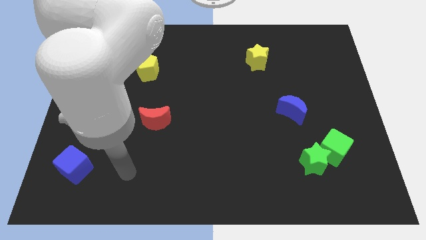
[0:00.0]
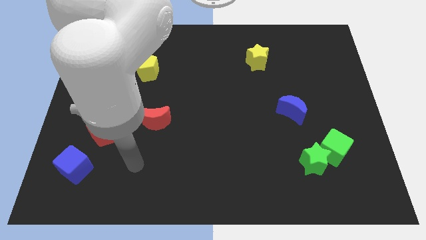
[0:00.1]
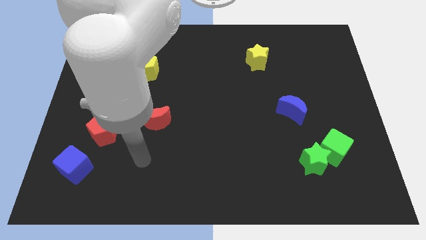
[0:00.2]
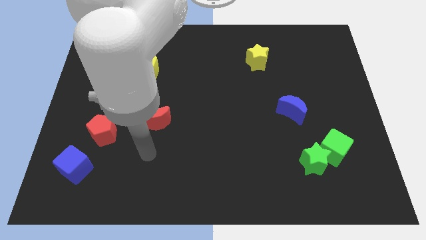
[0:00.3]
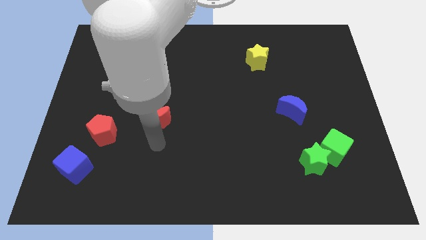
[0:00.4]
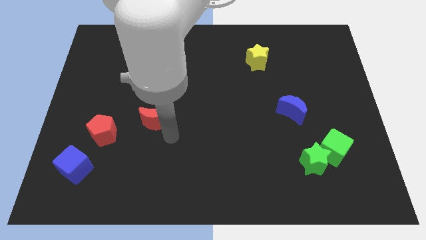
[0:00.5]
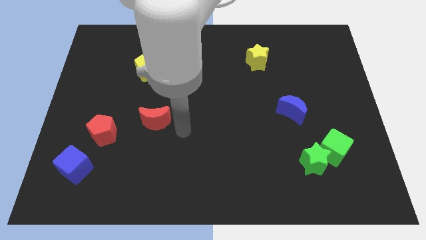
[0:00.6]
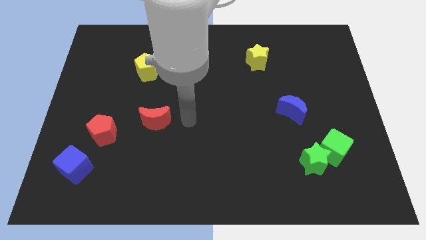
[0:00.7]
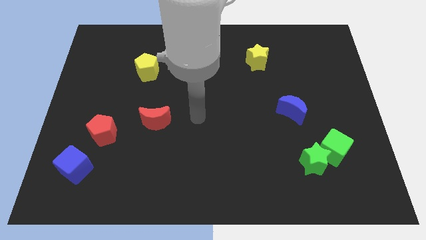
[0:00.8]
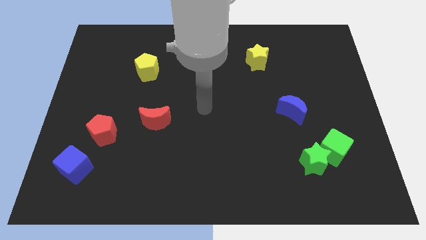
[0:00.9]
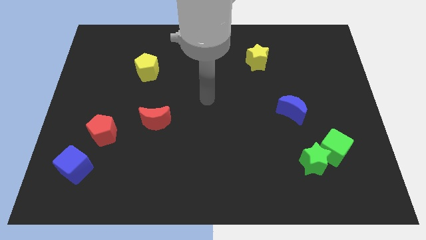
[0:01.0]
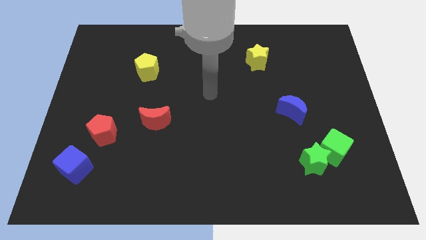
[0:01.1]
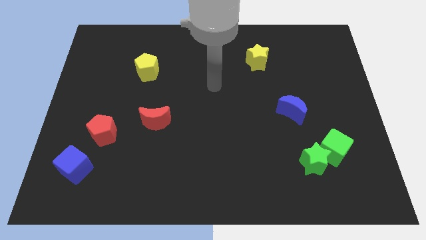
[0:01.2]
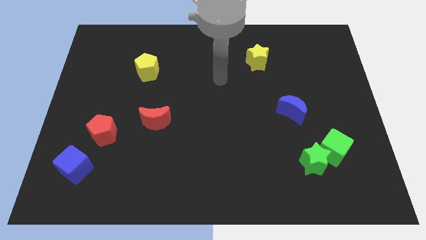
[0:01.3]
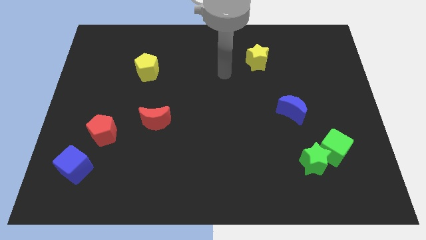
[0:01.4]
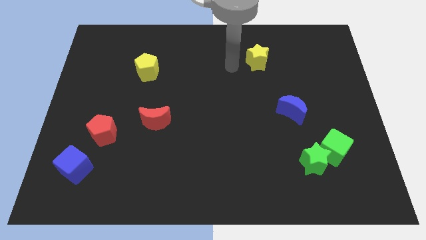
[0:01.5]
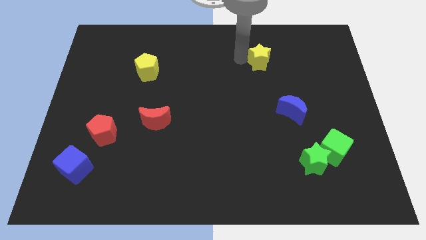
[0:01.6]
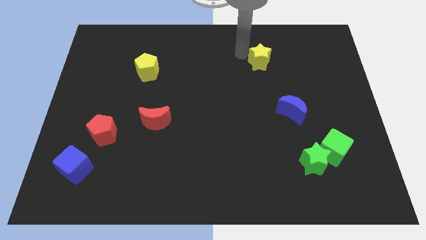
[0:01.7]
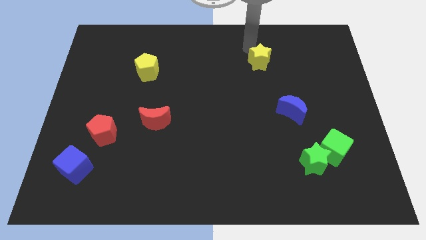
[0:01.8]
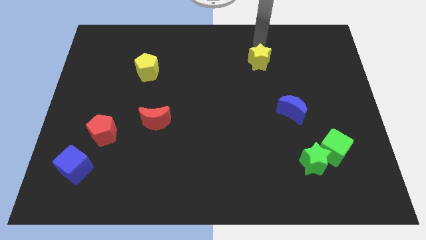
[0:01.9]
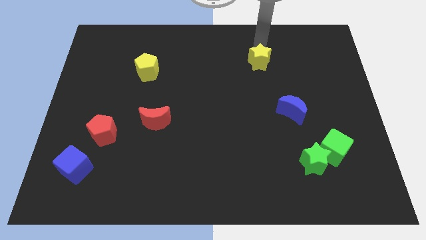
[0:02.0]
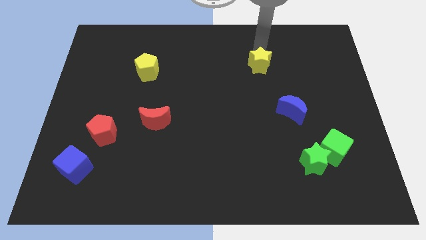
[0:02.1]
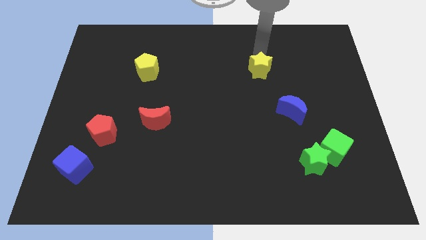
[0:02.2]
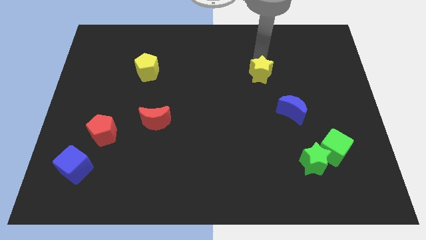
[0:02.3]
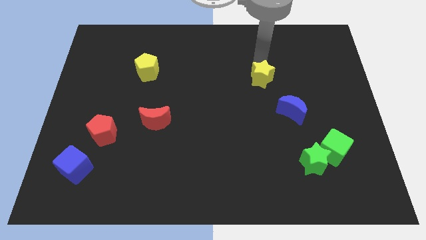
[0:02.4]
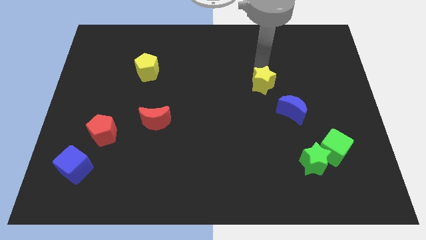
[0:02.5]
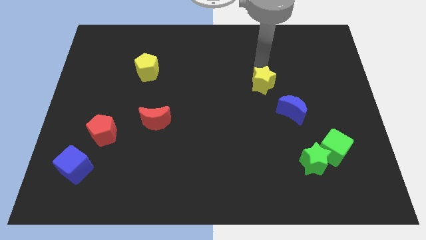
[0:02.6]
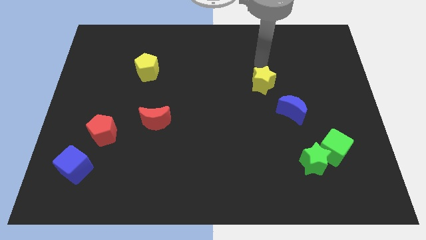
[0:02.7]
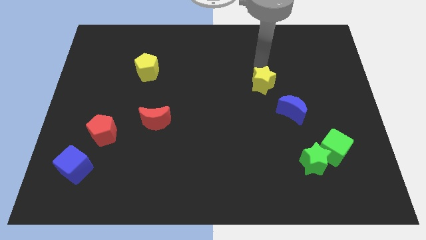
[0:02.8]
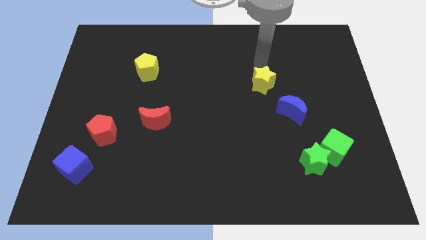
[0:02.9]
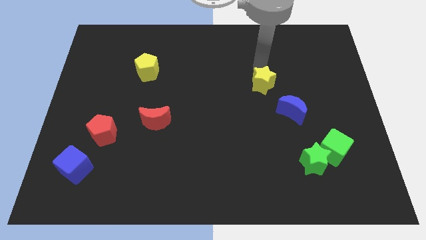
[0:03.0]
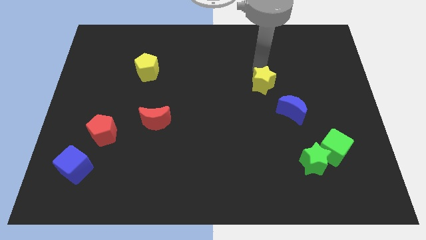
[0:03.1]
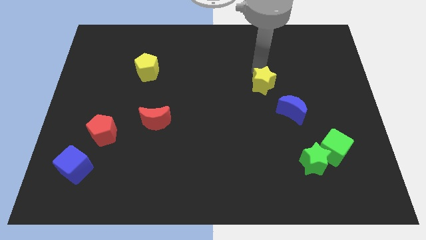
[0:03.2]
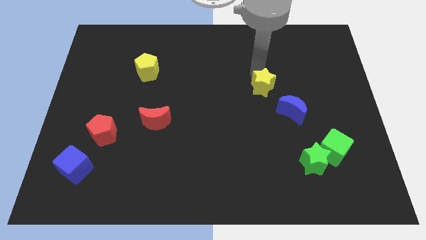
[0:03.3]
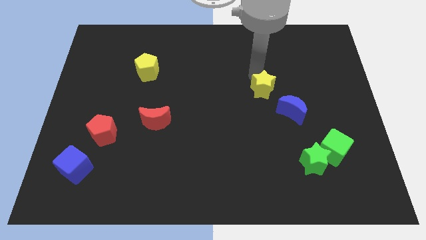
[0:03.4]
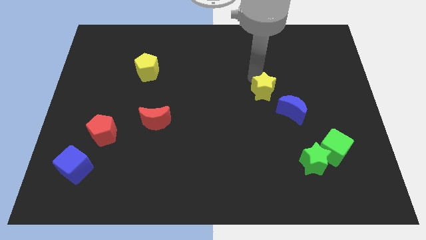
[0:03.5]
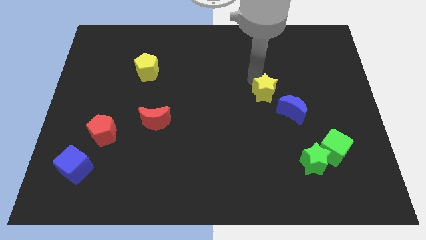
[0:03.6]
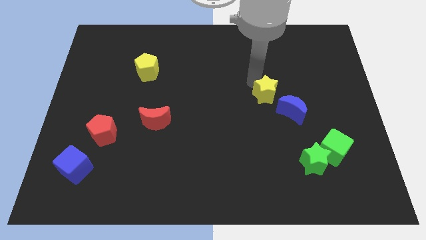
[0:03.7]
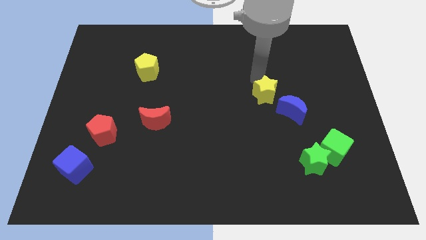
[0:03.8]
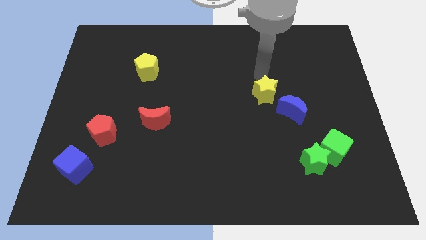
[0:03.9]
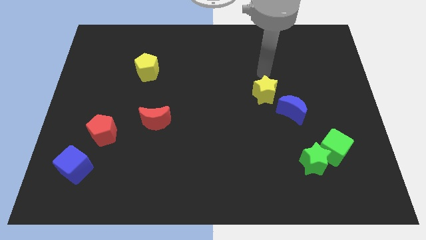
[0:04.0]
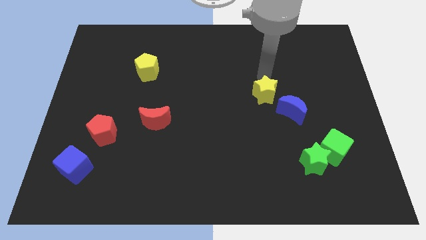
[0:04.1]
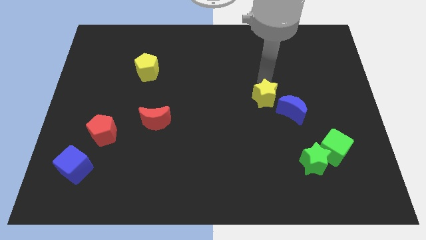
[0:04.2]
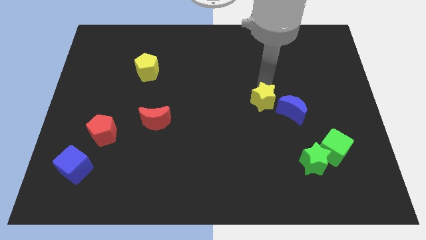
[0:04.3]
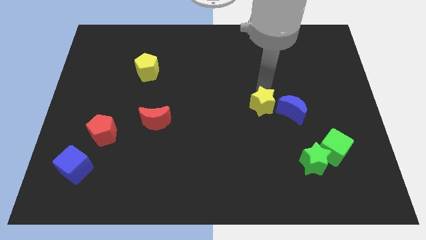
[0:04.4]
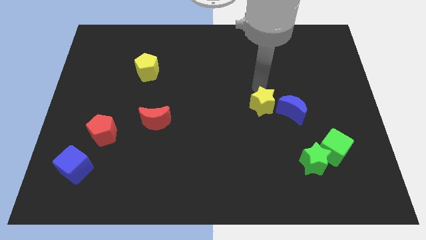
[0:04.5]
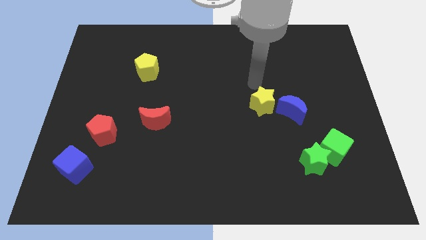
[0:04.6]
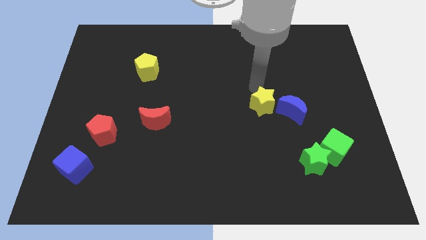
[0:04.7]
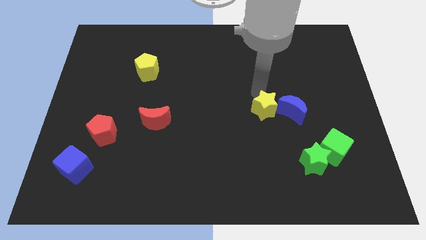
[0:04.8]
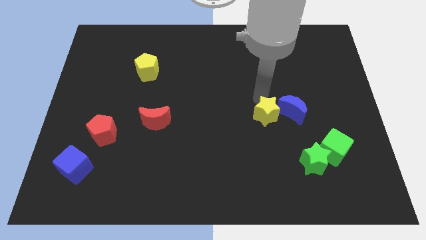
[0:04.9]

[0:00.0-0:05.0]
move the yellow star diagonally down and to the left of the blue moon

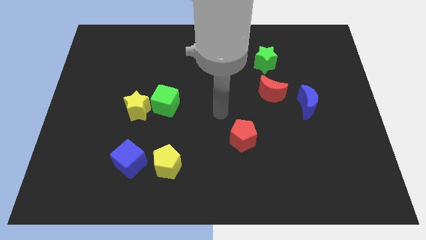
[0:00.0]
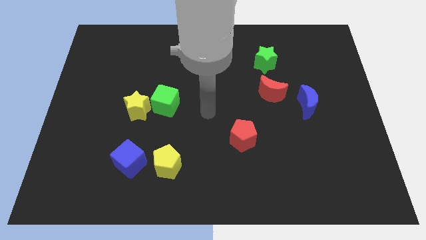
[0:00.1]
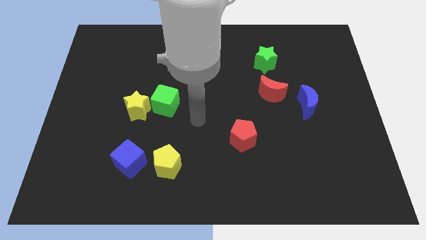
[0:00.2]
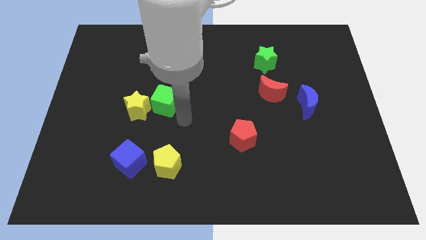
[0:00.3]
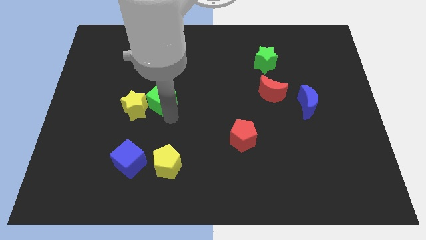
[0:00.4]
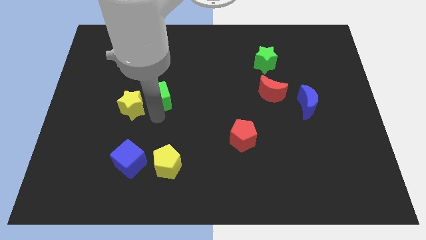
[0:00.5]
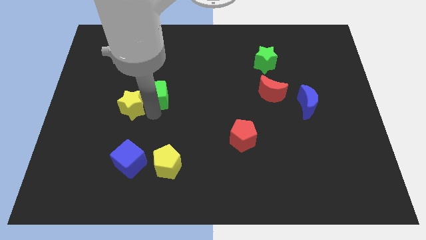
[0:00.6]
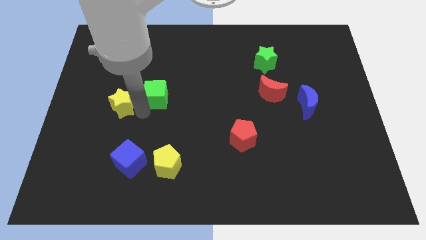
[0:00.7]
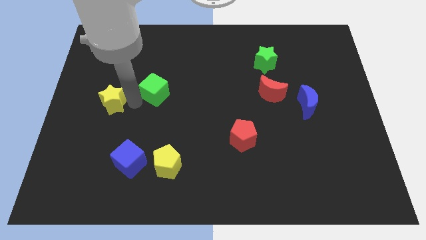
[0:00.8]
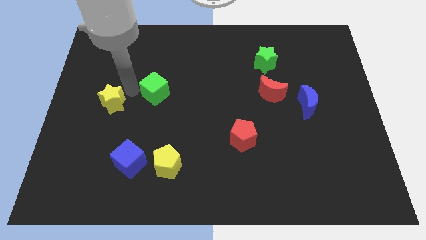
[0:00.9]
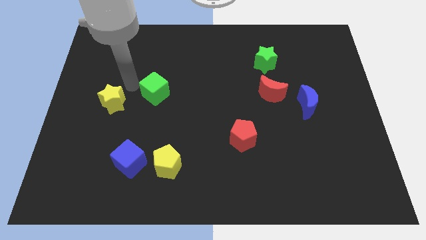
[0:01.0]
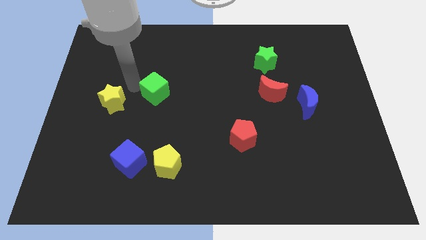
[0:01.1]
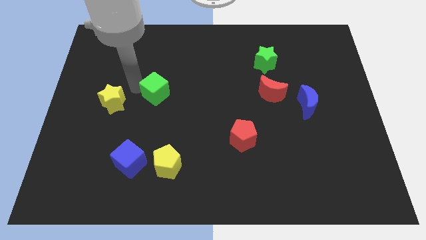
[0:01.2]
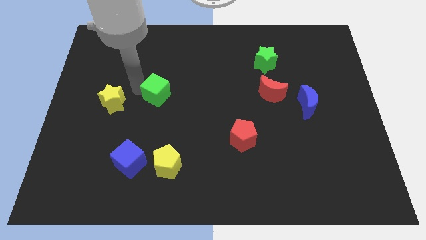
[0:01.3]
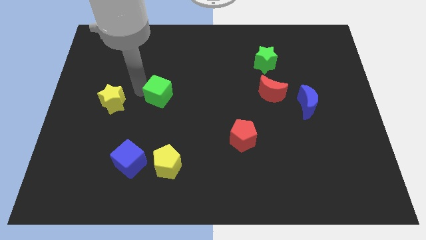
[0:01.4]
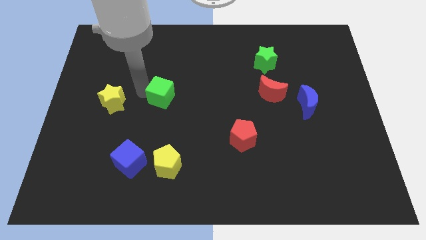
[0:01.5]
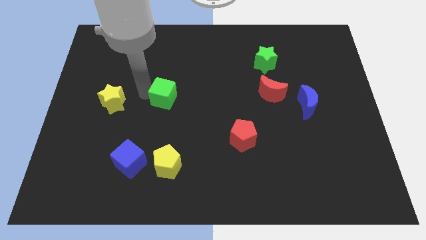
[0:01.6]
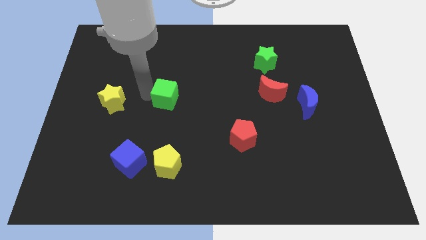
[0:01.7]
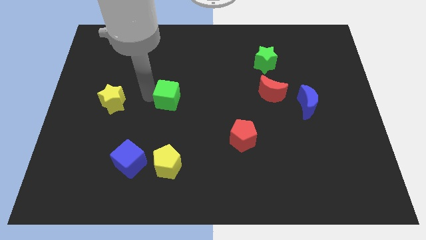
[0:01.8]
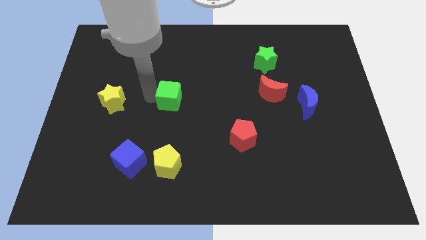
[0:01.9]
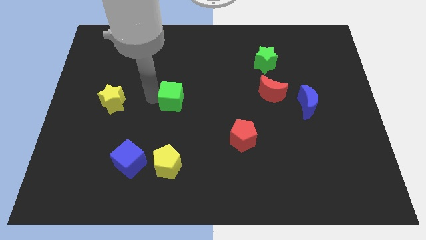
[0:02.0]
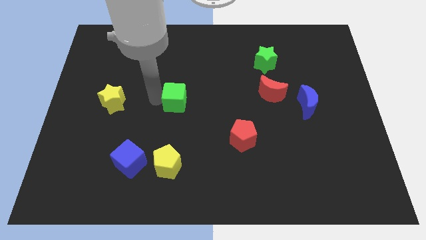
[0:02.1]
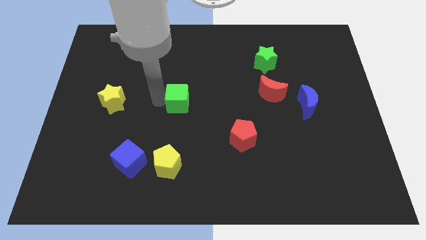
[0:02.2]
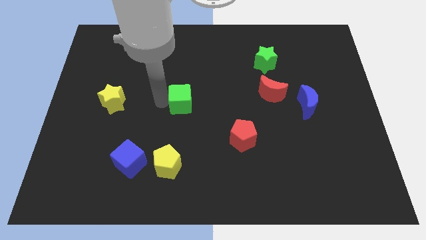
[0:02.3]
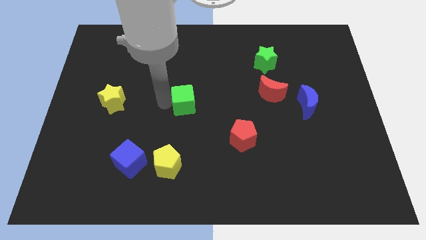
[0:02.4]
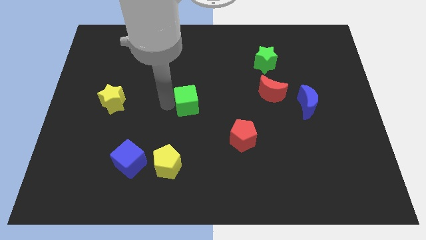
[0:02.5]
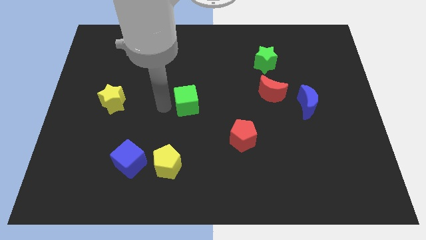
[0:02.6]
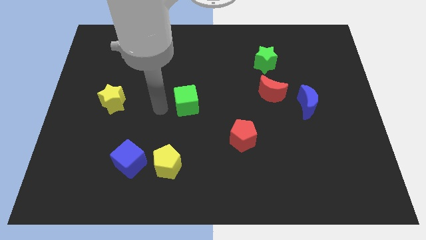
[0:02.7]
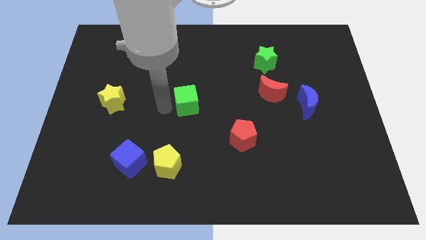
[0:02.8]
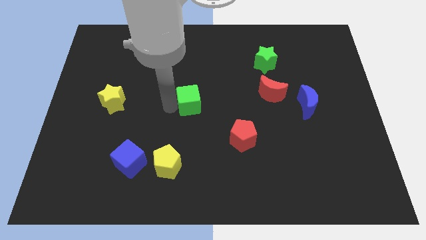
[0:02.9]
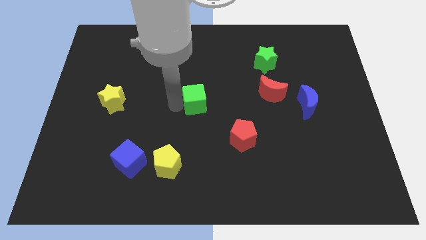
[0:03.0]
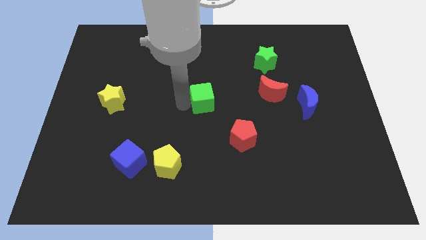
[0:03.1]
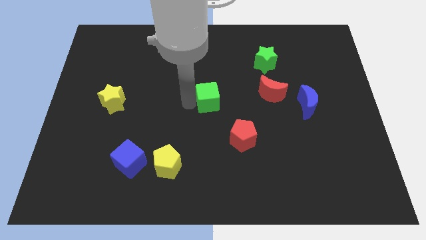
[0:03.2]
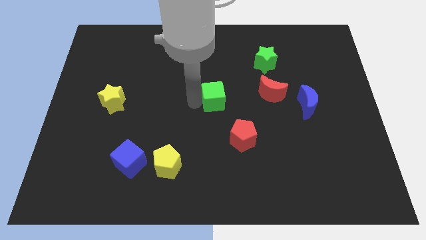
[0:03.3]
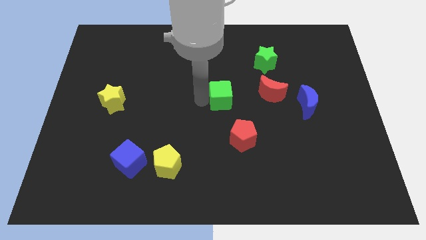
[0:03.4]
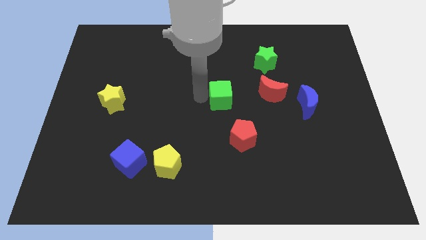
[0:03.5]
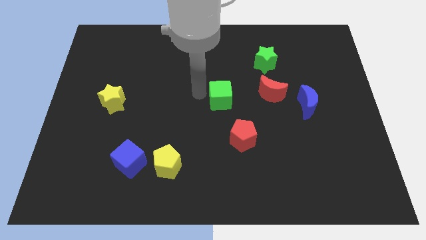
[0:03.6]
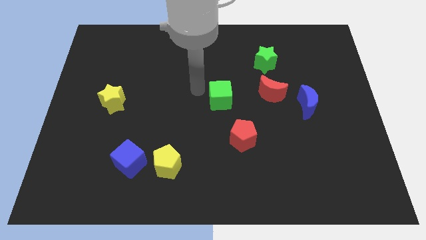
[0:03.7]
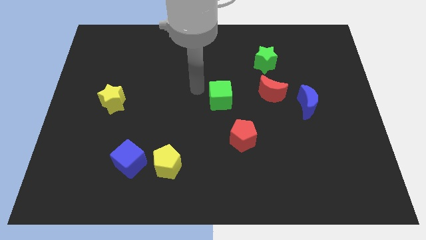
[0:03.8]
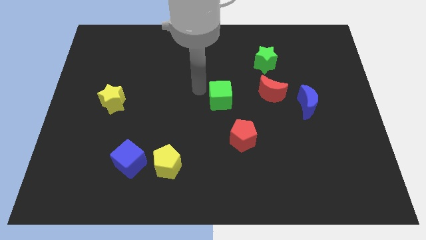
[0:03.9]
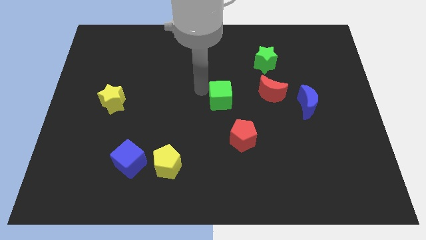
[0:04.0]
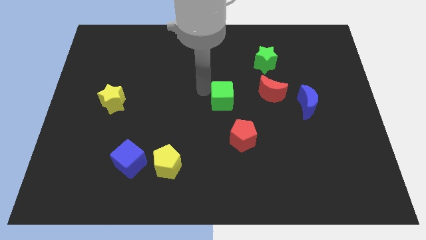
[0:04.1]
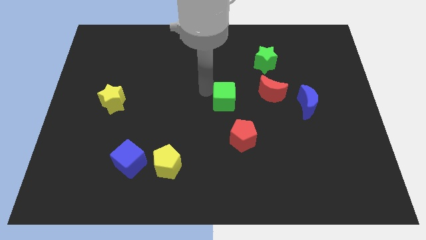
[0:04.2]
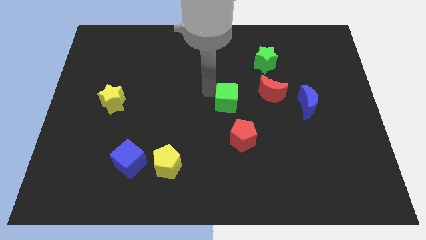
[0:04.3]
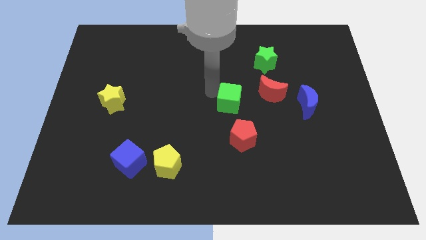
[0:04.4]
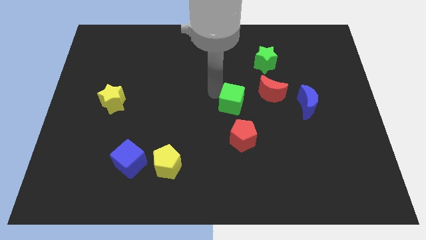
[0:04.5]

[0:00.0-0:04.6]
move the green cube diagonally down and to the left of the red moon
